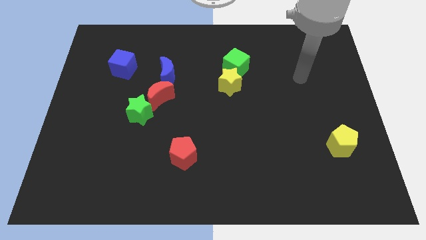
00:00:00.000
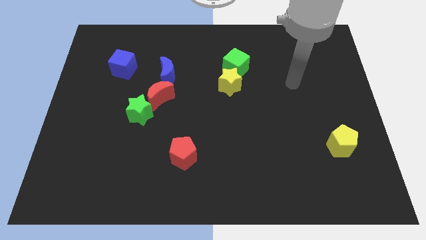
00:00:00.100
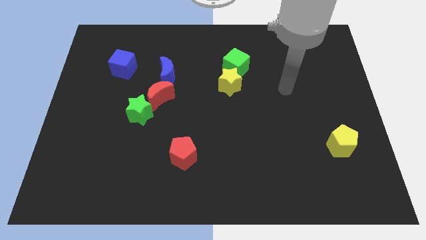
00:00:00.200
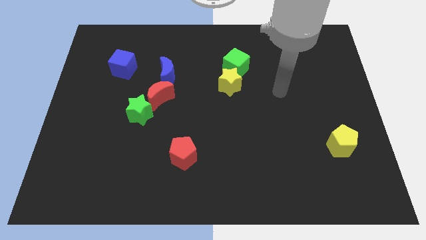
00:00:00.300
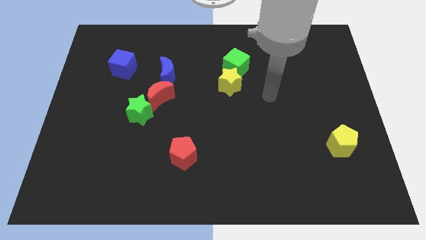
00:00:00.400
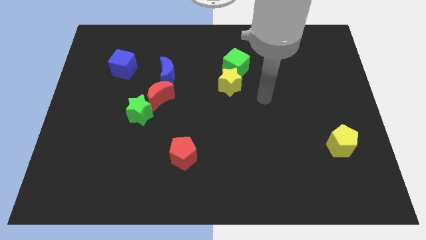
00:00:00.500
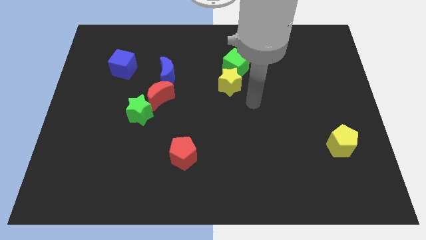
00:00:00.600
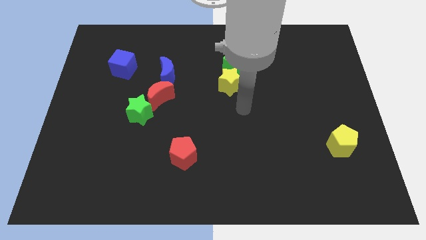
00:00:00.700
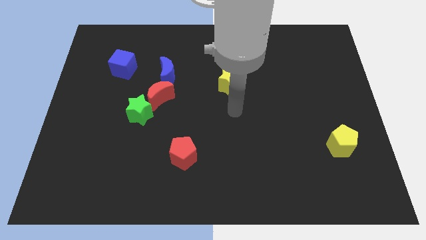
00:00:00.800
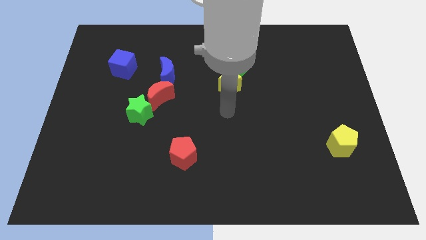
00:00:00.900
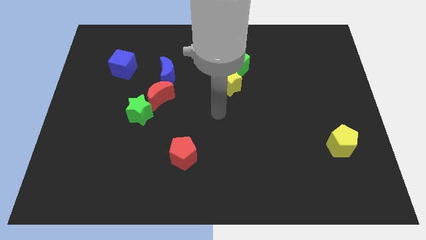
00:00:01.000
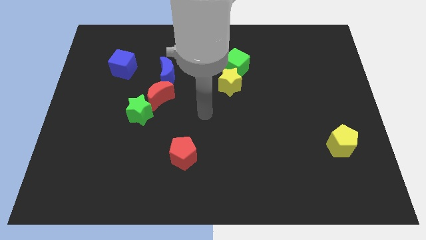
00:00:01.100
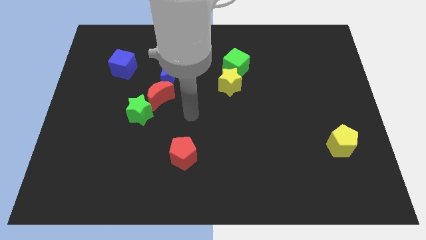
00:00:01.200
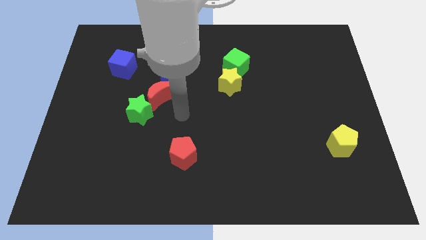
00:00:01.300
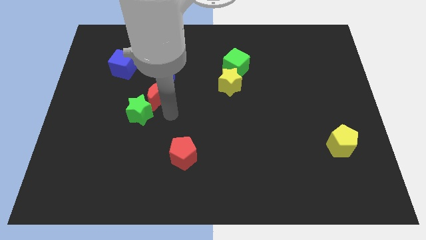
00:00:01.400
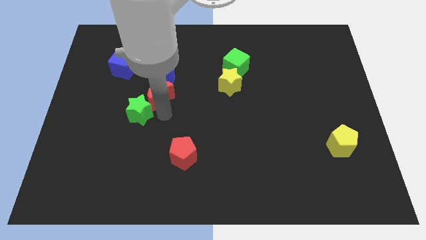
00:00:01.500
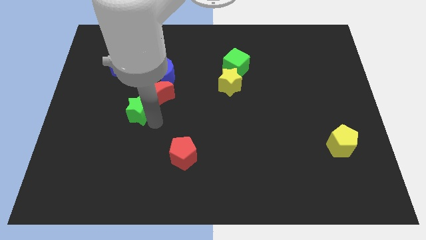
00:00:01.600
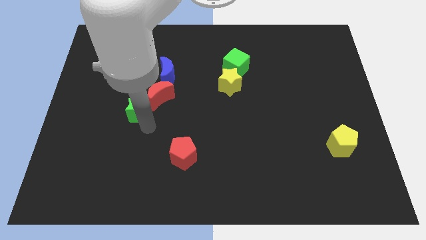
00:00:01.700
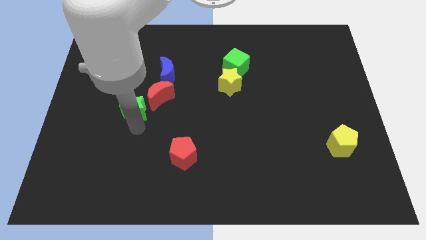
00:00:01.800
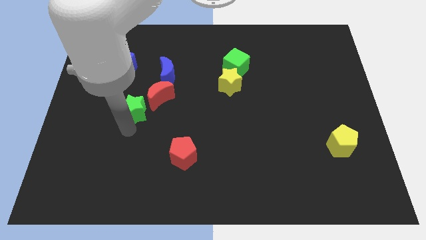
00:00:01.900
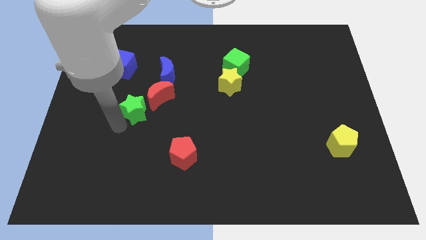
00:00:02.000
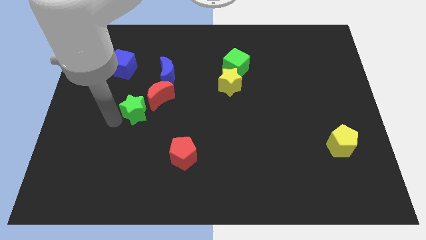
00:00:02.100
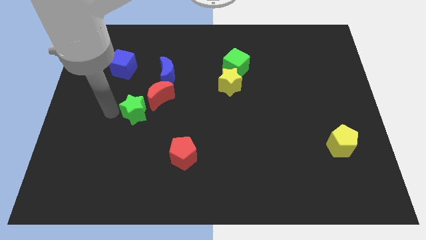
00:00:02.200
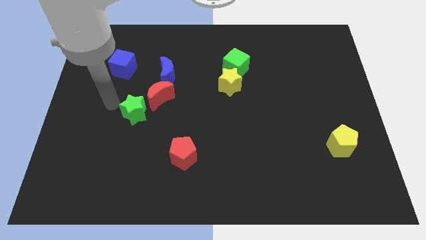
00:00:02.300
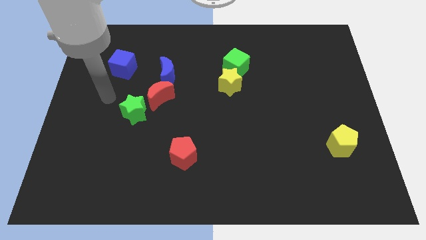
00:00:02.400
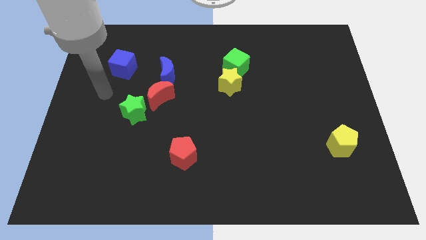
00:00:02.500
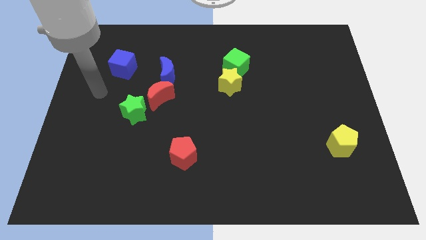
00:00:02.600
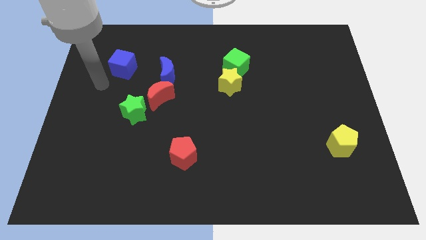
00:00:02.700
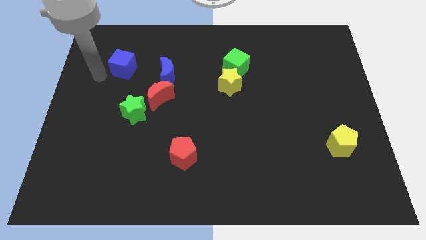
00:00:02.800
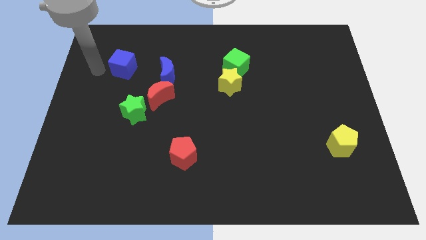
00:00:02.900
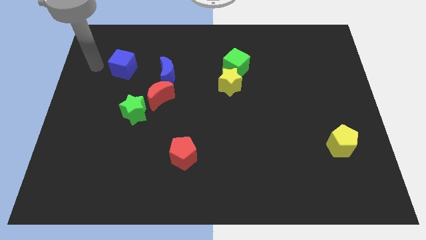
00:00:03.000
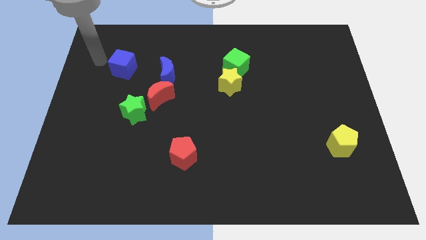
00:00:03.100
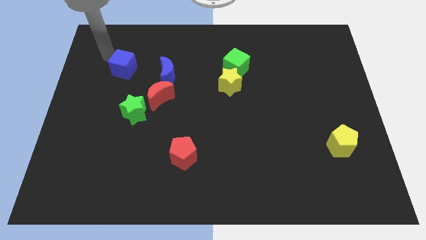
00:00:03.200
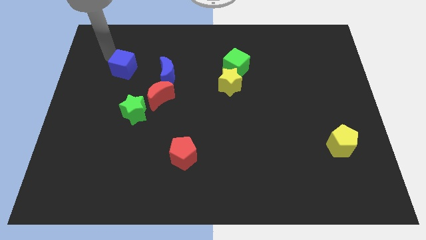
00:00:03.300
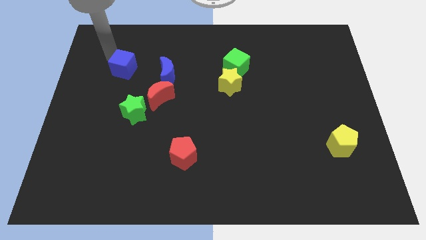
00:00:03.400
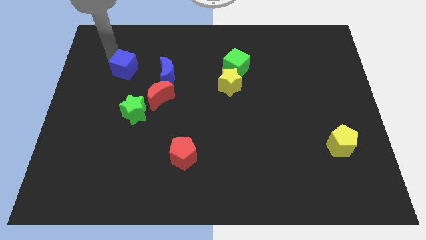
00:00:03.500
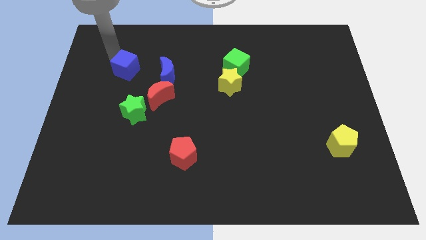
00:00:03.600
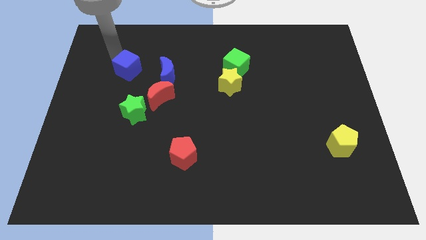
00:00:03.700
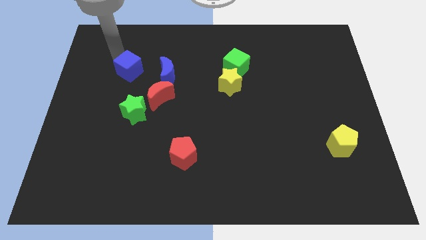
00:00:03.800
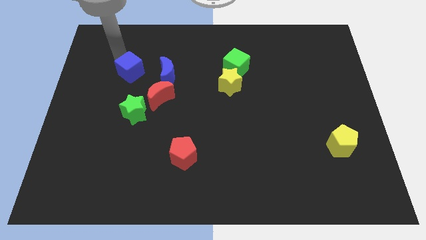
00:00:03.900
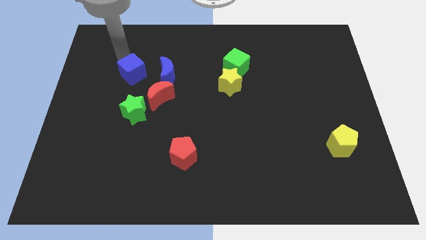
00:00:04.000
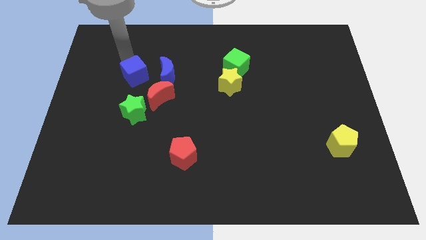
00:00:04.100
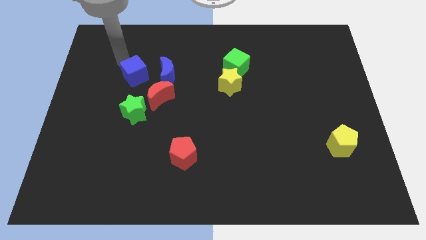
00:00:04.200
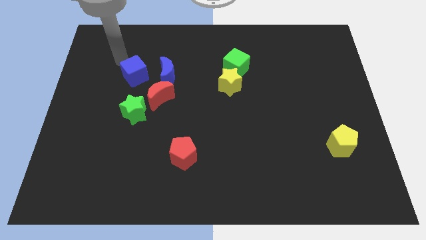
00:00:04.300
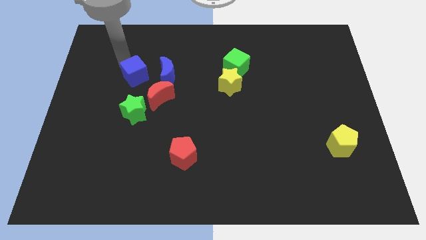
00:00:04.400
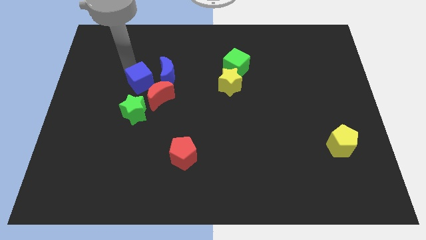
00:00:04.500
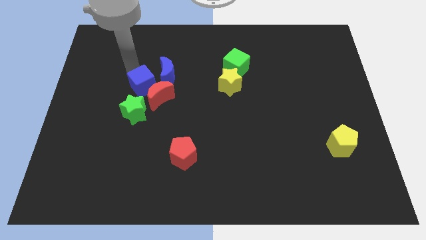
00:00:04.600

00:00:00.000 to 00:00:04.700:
put the blue cube next to the red moon

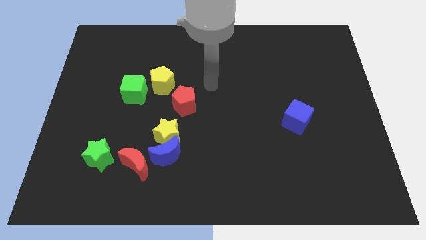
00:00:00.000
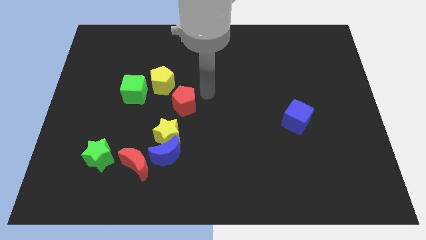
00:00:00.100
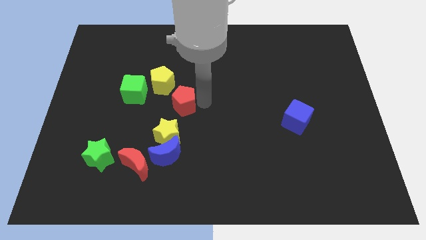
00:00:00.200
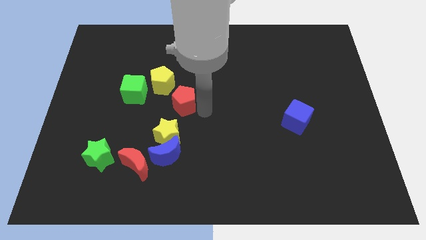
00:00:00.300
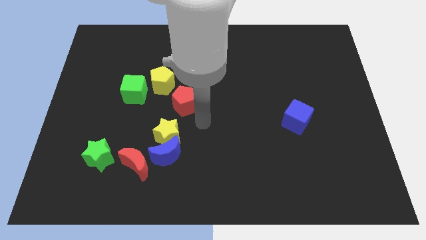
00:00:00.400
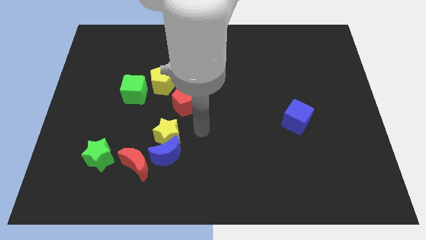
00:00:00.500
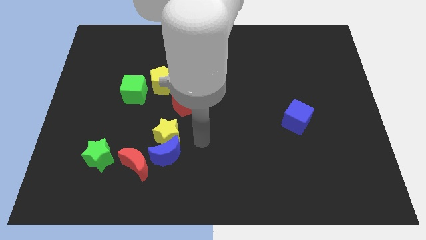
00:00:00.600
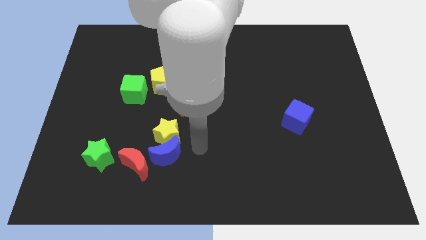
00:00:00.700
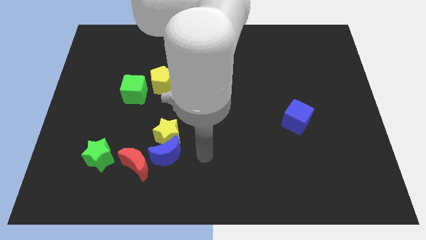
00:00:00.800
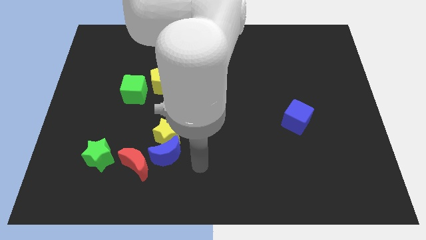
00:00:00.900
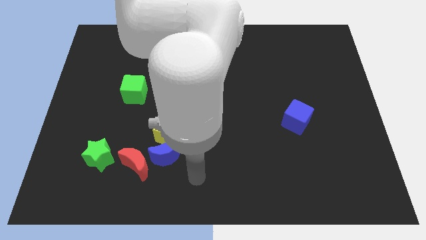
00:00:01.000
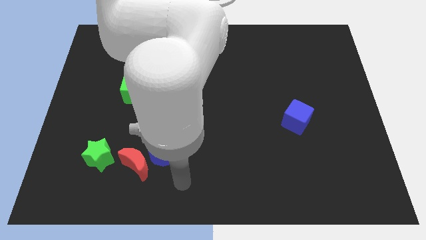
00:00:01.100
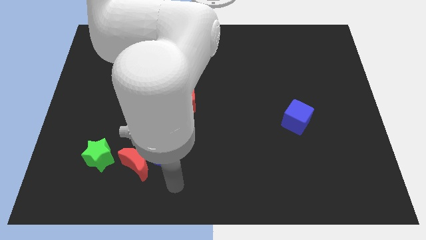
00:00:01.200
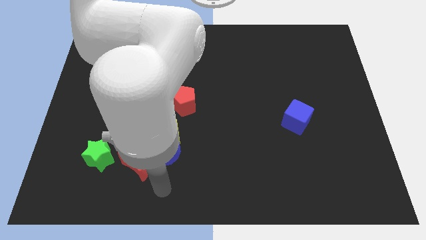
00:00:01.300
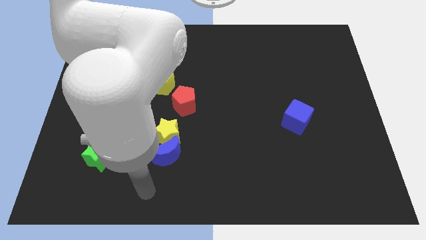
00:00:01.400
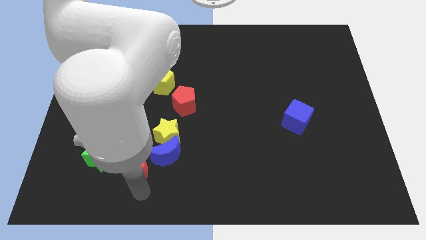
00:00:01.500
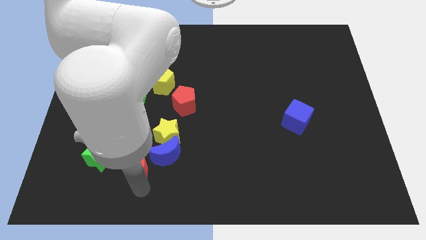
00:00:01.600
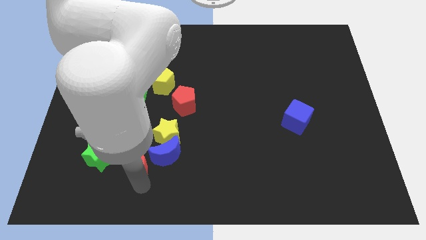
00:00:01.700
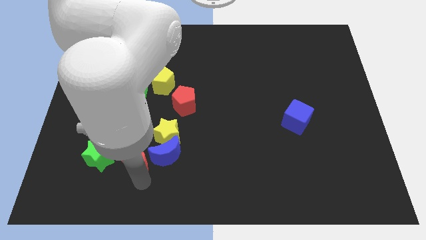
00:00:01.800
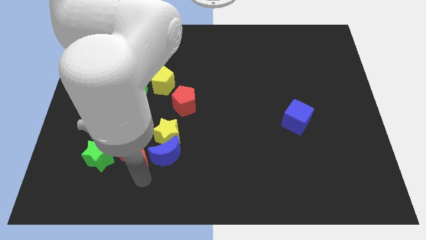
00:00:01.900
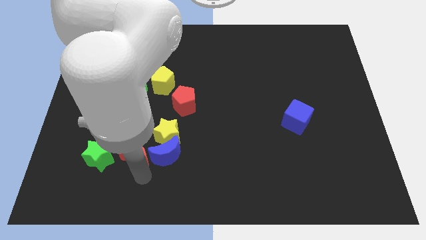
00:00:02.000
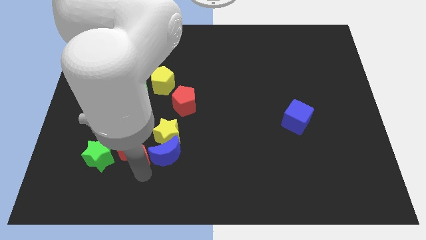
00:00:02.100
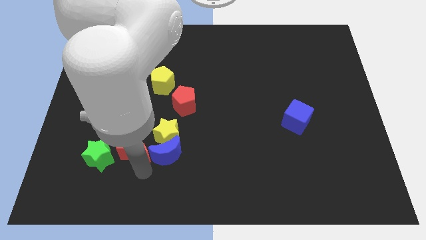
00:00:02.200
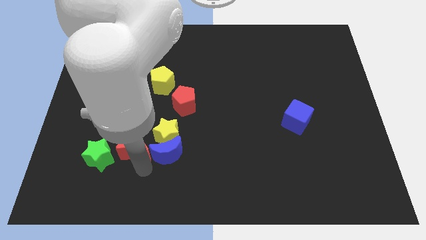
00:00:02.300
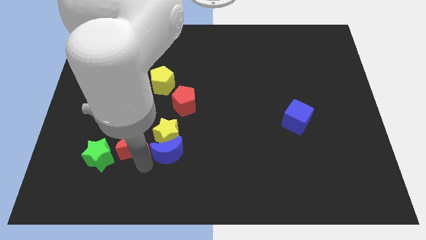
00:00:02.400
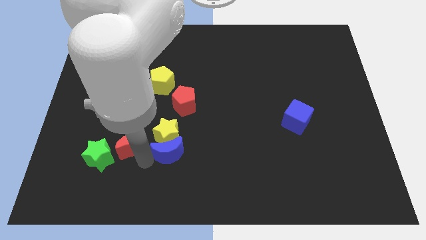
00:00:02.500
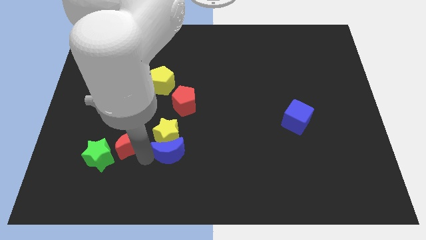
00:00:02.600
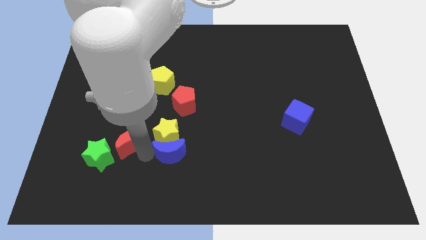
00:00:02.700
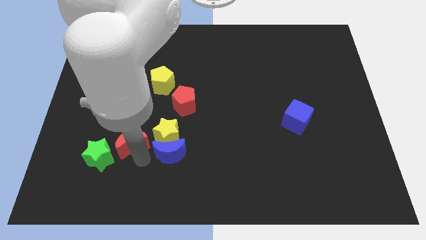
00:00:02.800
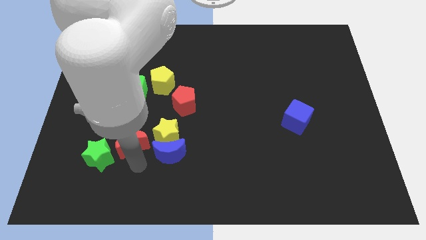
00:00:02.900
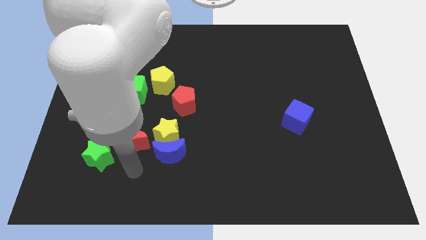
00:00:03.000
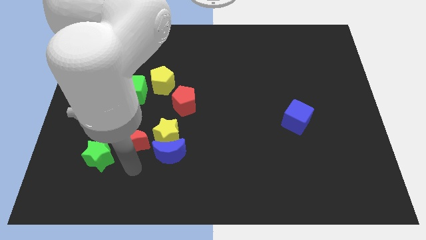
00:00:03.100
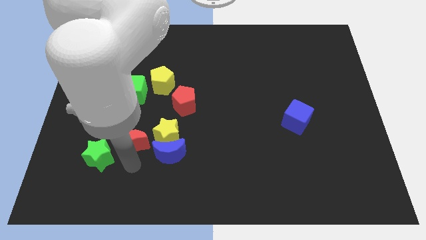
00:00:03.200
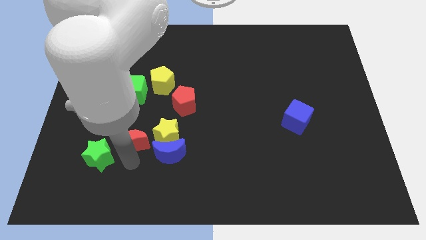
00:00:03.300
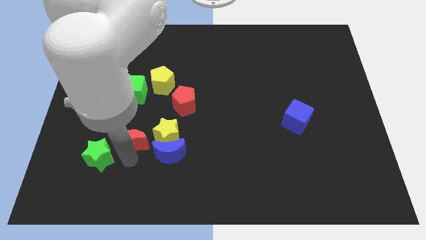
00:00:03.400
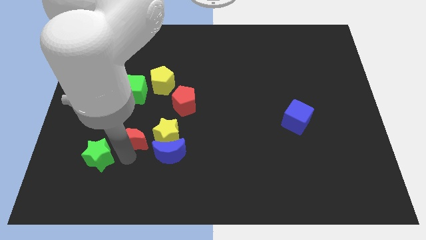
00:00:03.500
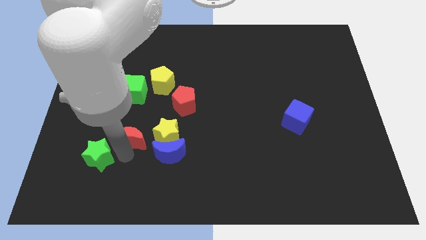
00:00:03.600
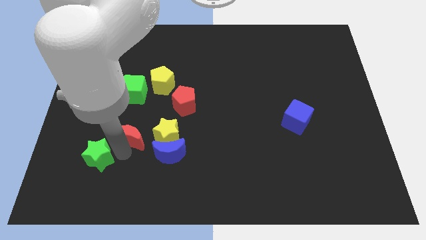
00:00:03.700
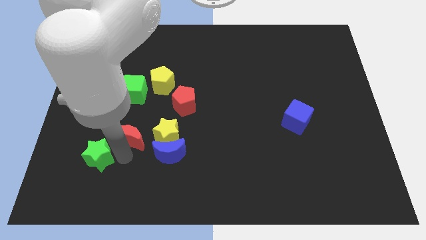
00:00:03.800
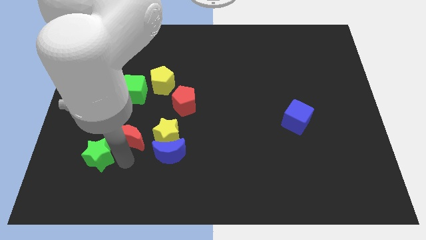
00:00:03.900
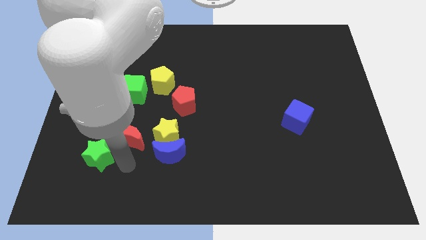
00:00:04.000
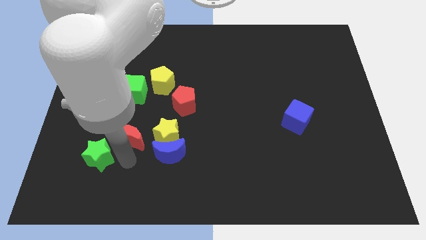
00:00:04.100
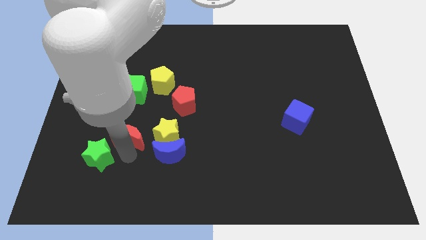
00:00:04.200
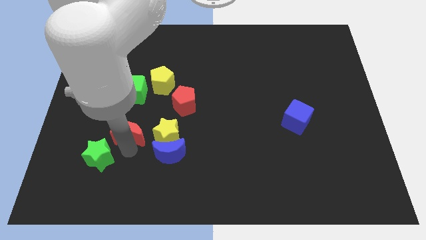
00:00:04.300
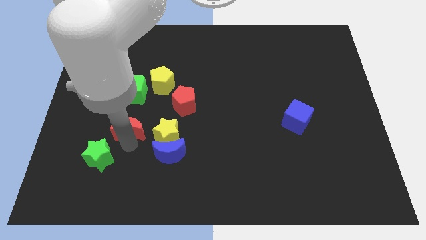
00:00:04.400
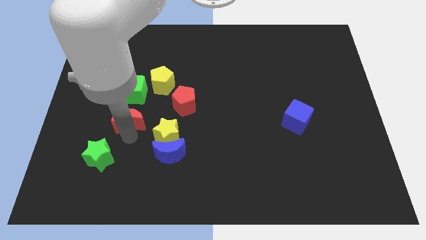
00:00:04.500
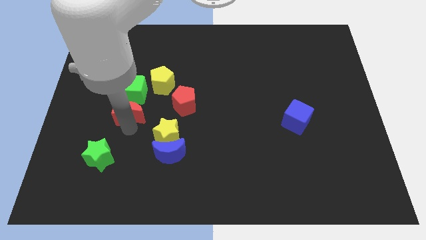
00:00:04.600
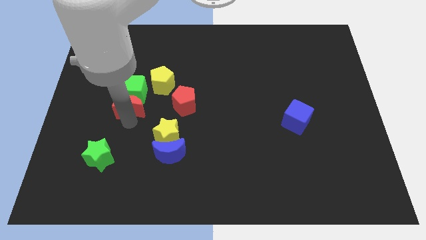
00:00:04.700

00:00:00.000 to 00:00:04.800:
put the red moon next to the green cube
